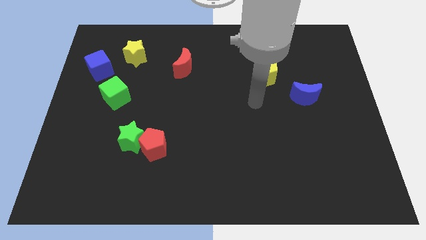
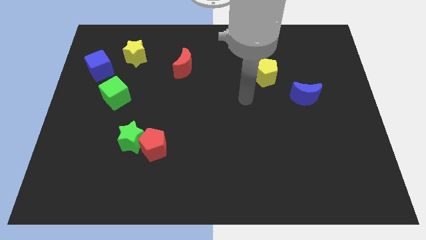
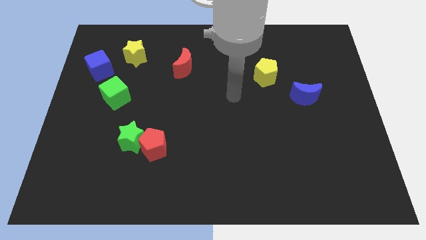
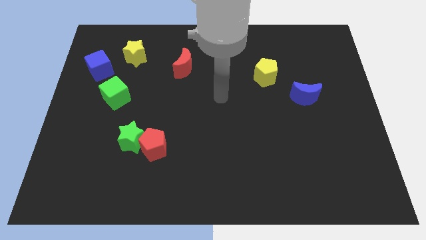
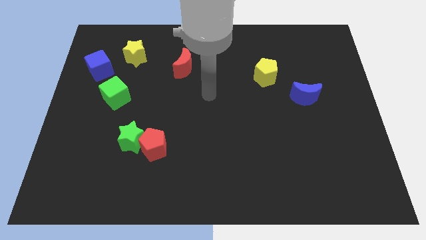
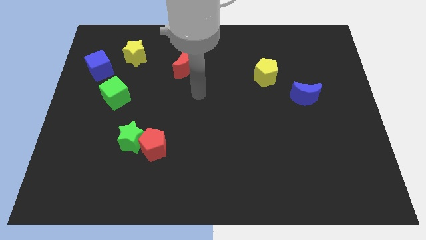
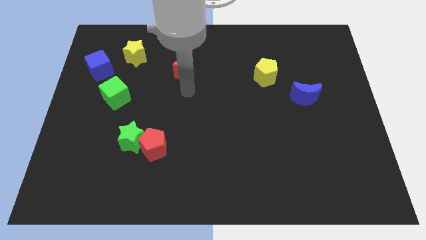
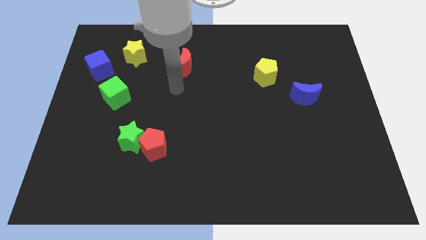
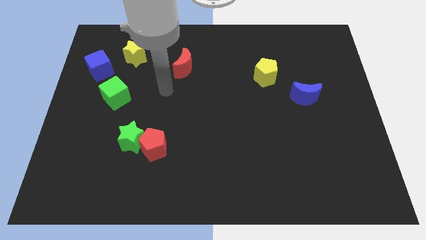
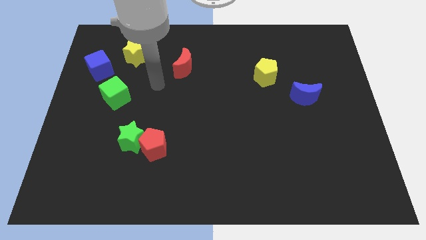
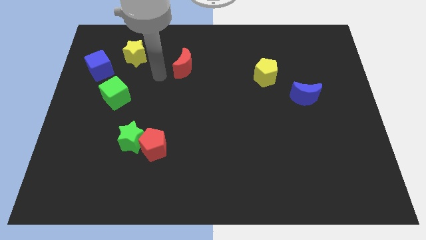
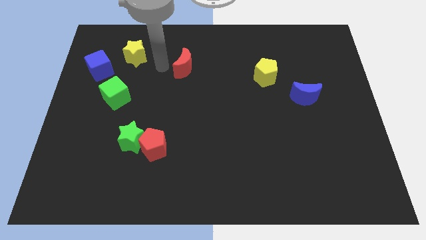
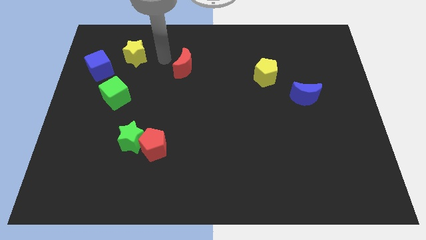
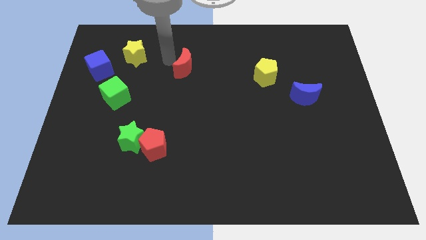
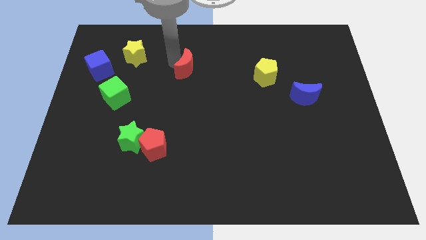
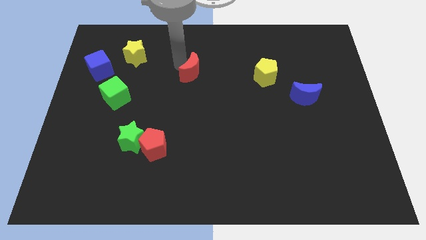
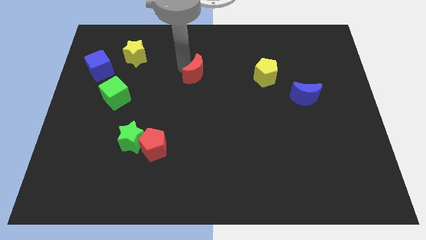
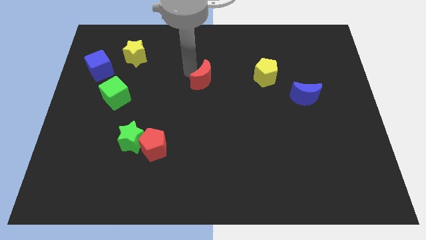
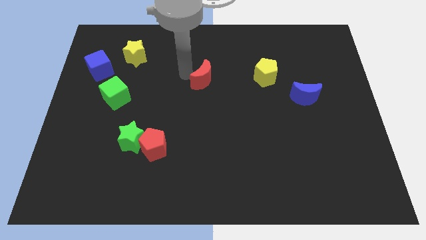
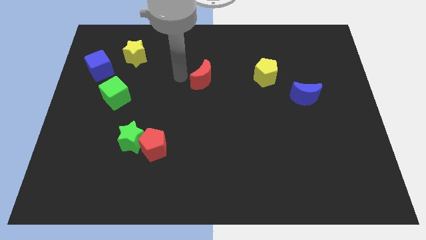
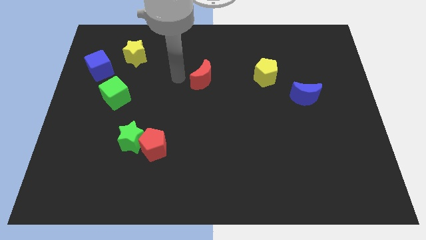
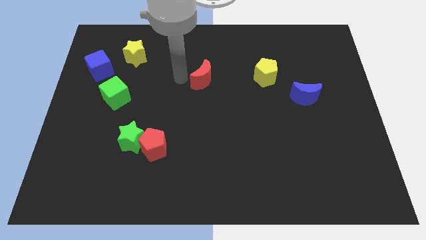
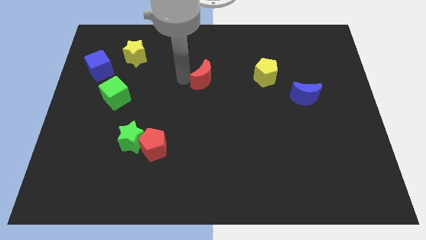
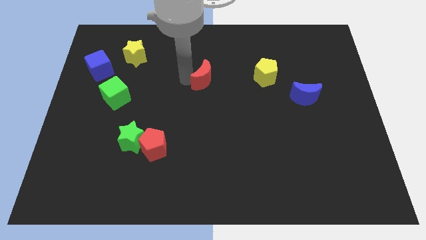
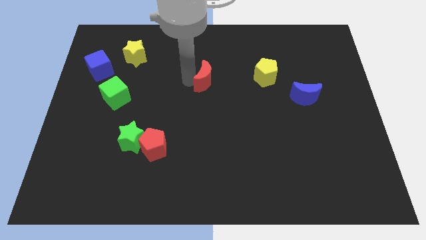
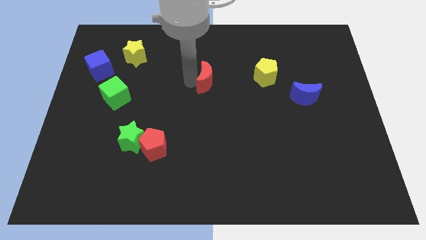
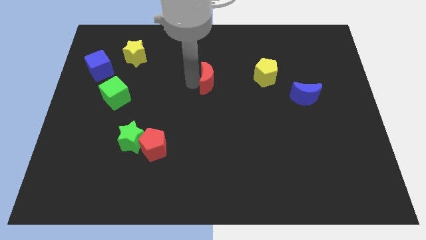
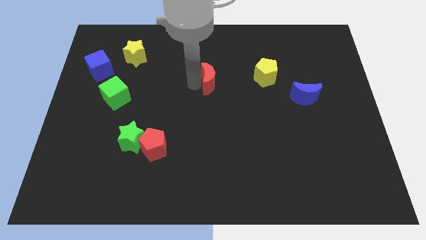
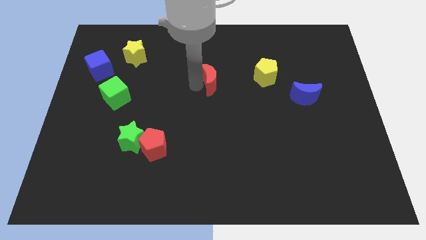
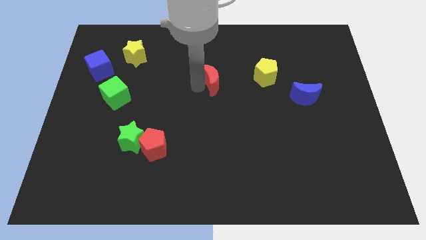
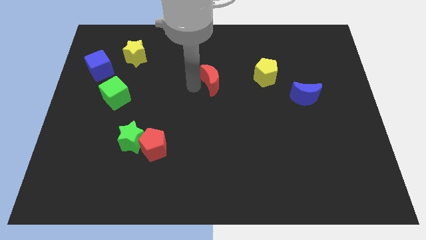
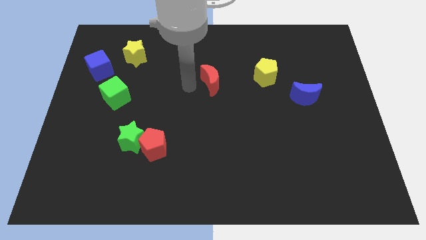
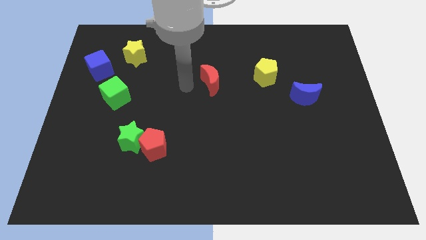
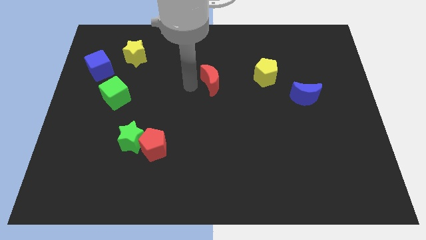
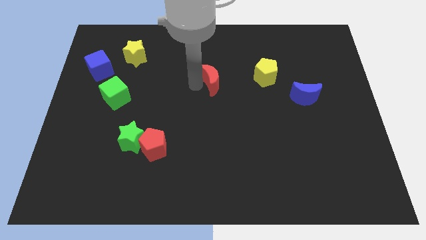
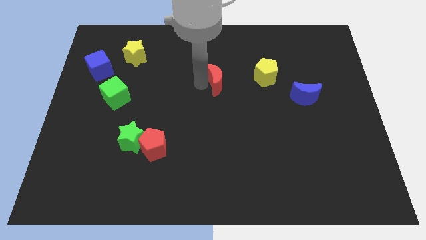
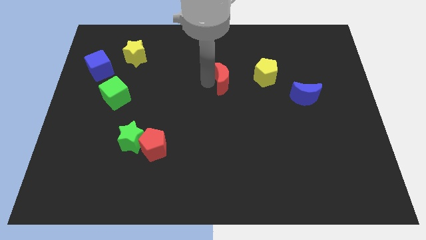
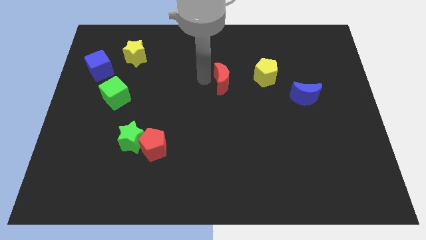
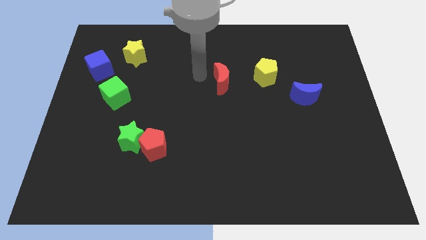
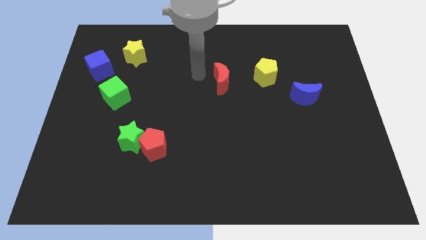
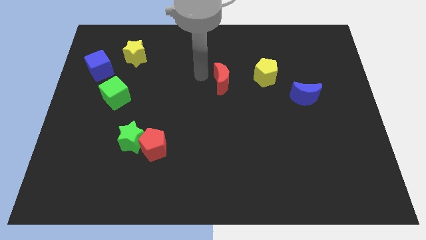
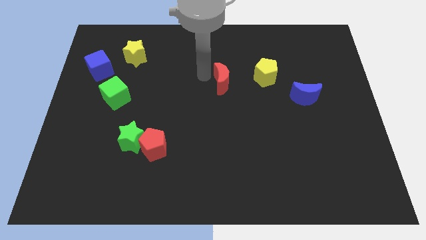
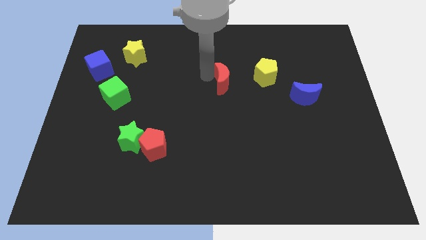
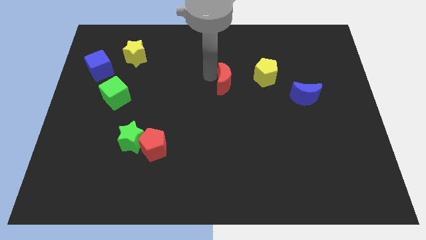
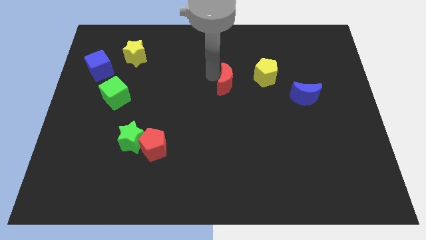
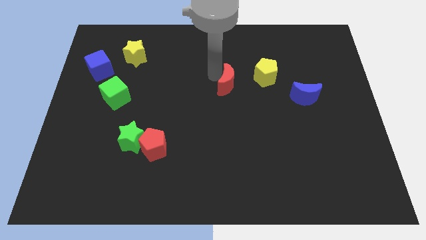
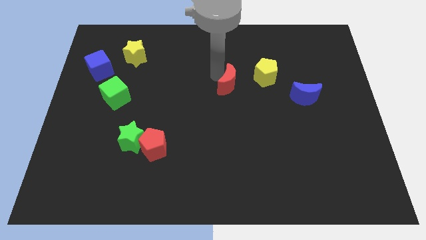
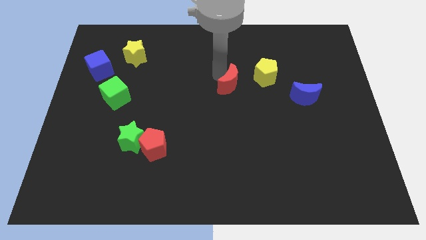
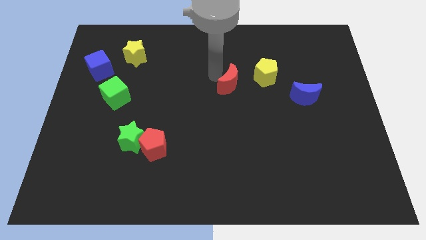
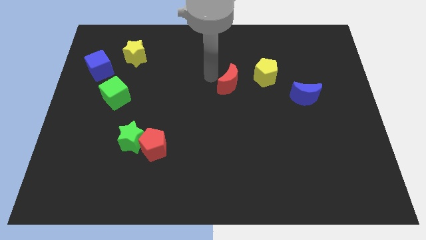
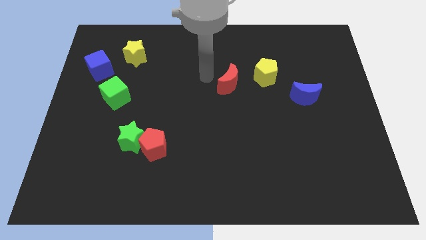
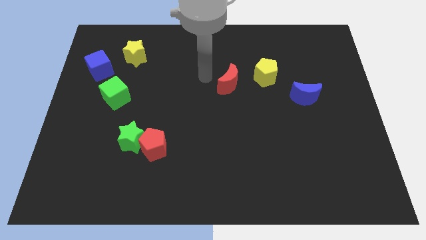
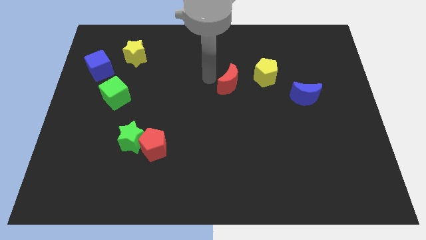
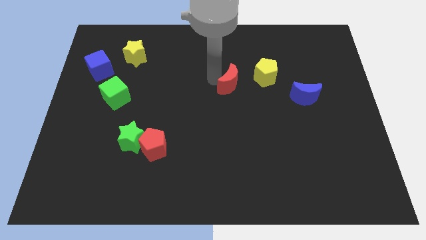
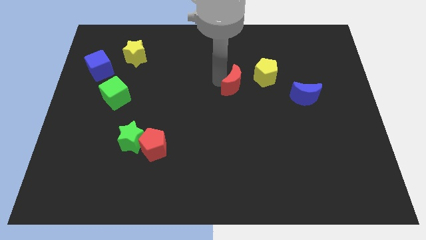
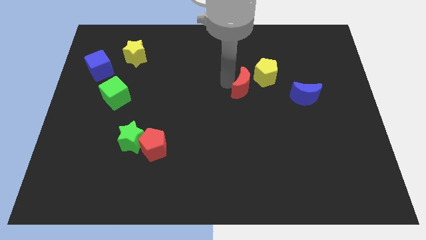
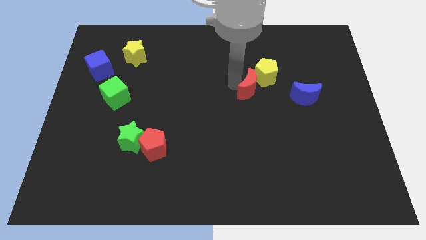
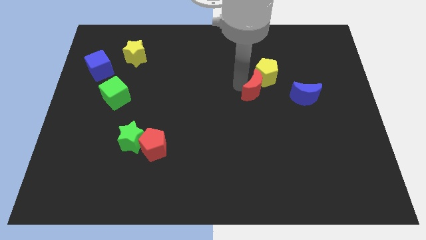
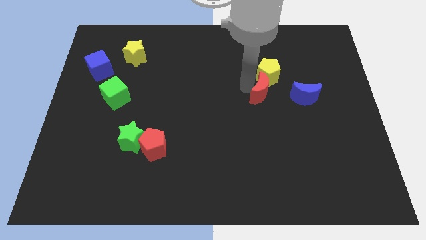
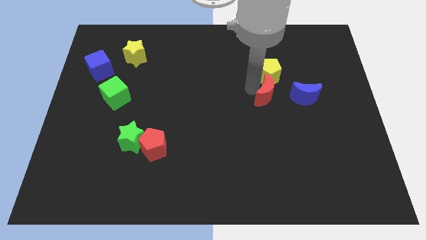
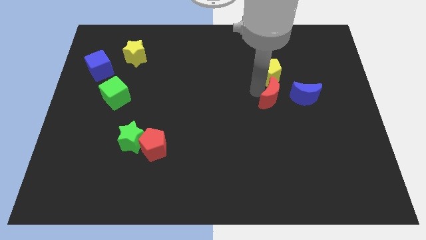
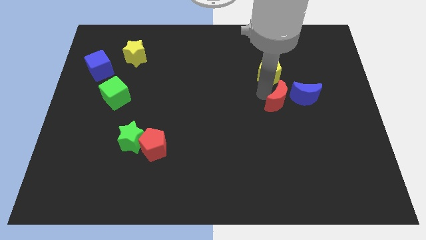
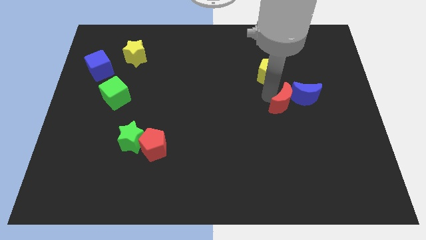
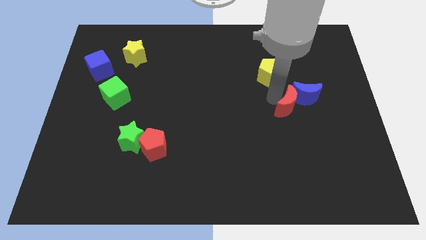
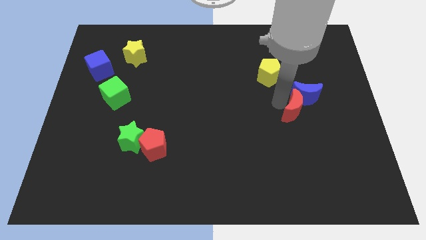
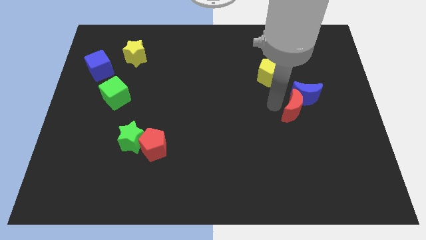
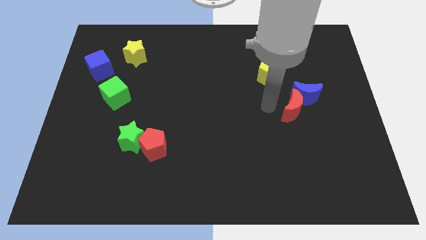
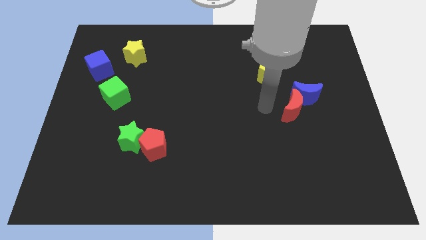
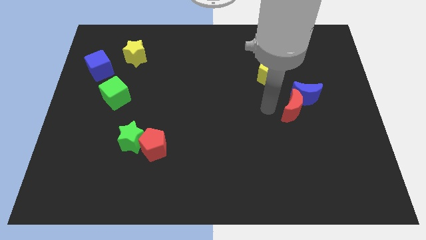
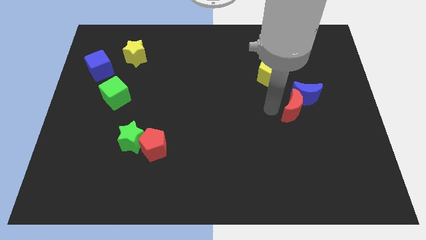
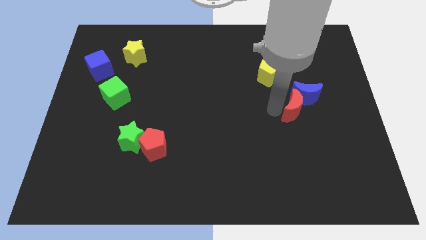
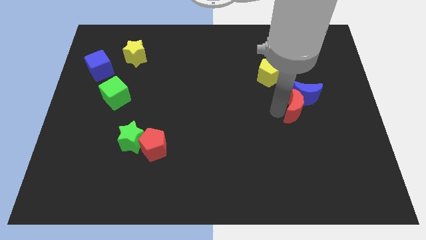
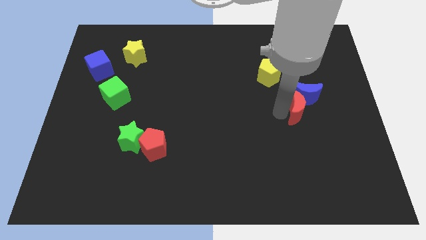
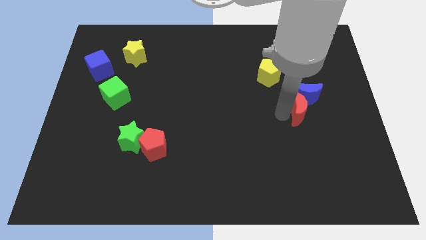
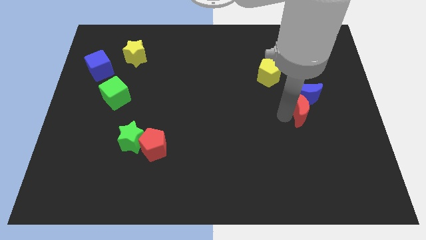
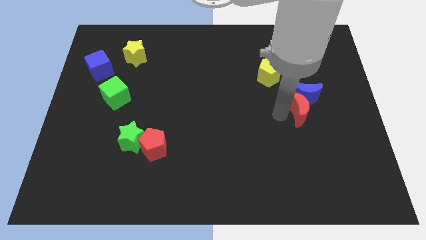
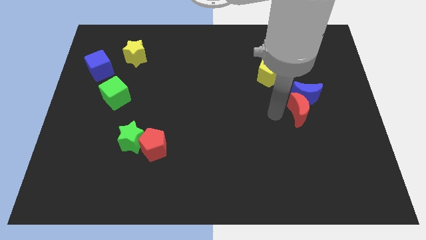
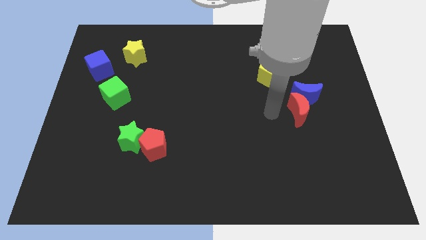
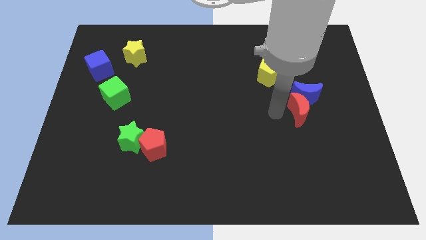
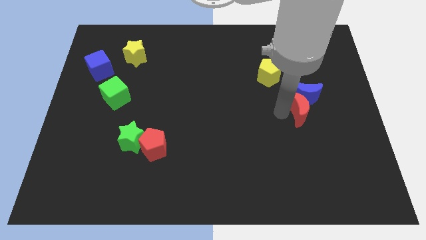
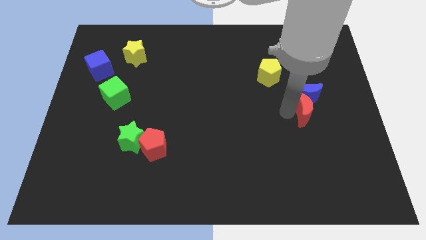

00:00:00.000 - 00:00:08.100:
push the red moon to the bottom right of the blue moon
